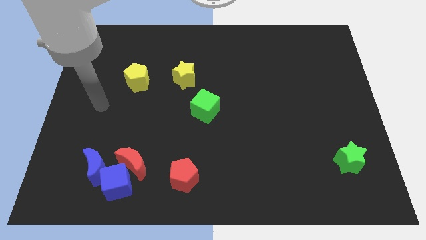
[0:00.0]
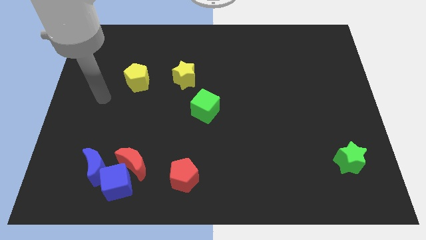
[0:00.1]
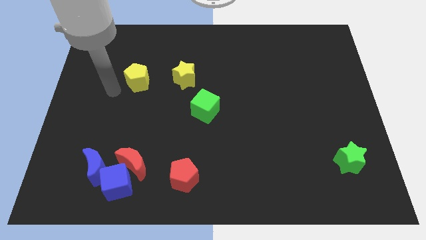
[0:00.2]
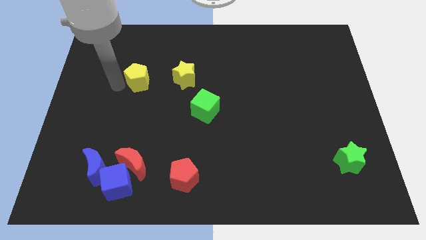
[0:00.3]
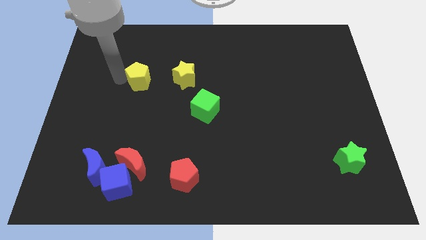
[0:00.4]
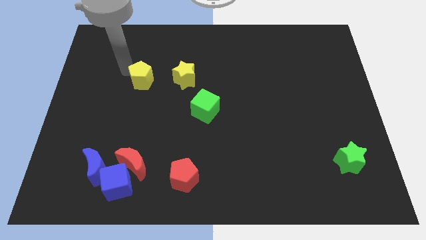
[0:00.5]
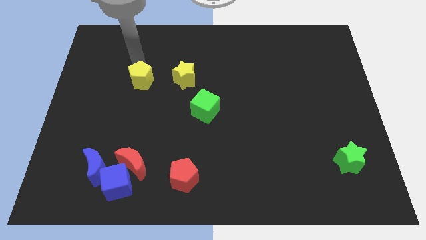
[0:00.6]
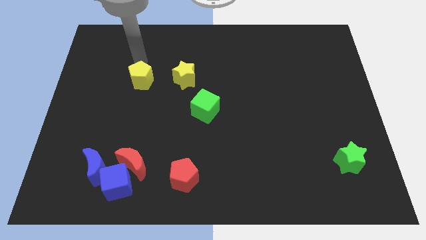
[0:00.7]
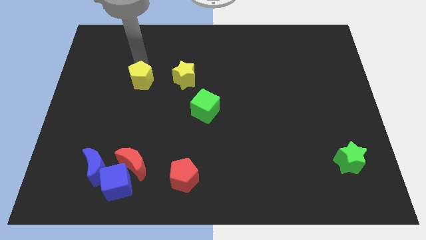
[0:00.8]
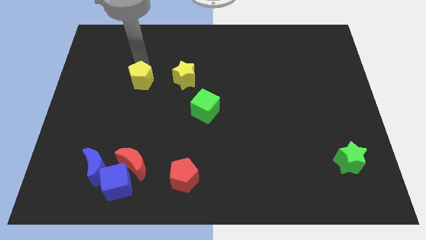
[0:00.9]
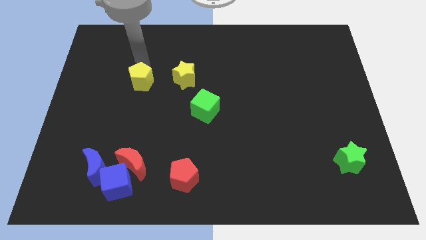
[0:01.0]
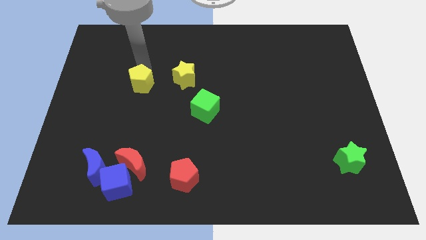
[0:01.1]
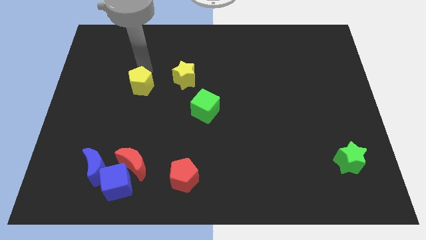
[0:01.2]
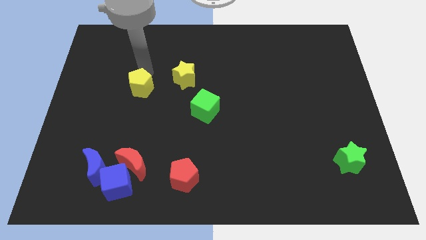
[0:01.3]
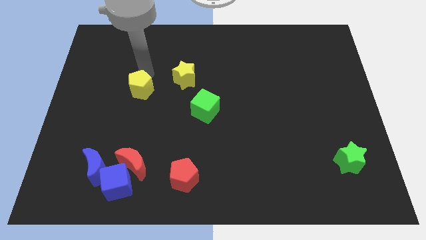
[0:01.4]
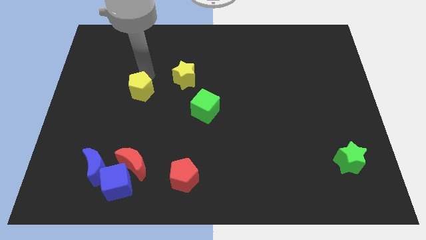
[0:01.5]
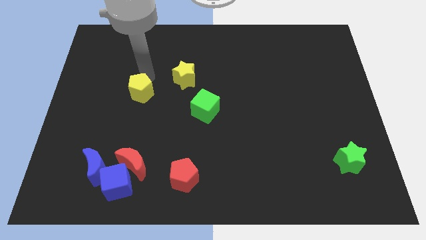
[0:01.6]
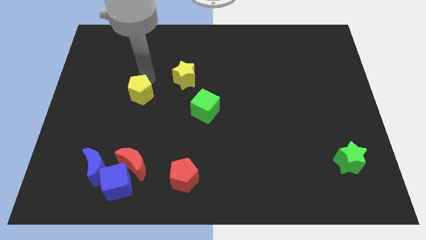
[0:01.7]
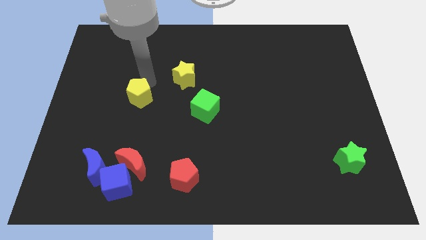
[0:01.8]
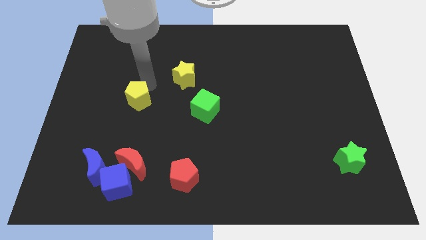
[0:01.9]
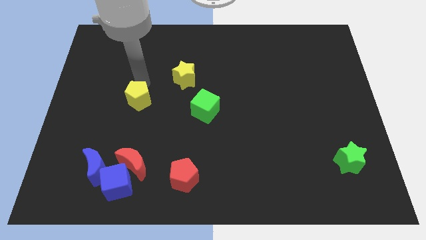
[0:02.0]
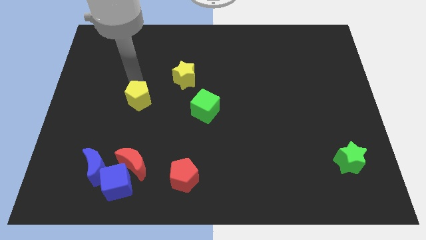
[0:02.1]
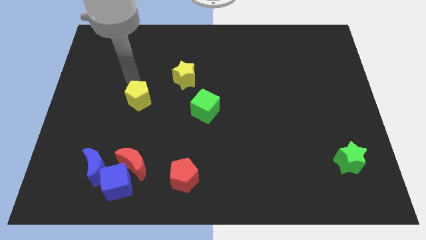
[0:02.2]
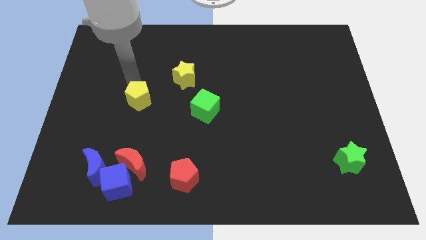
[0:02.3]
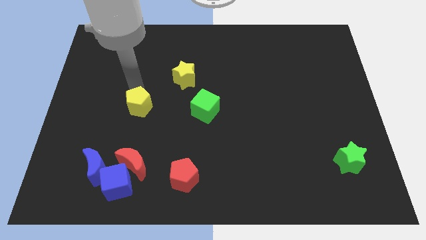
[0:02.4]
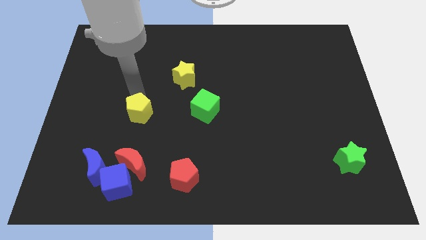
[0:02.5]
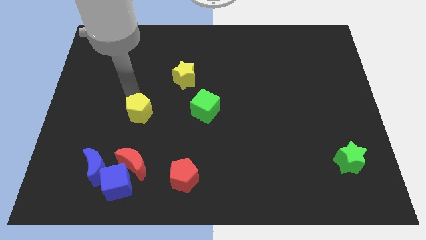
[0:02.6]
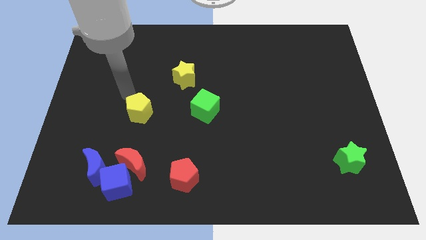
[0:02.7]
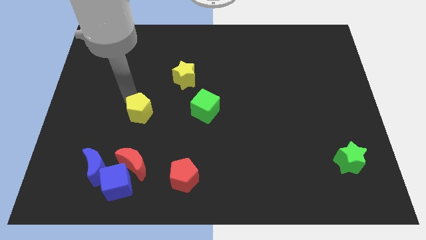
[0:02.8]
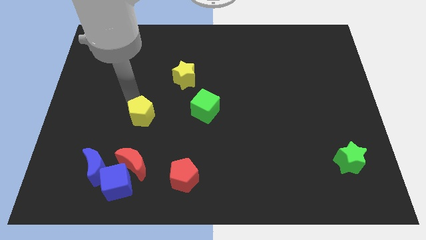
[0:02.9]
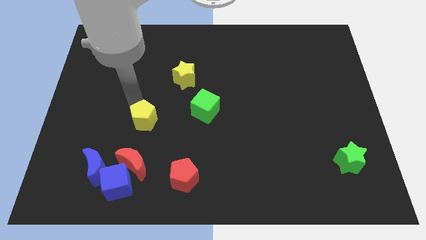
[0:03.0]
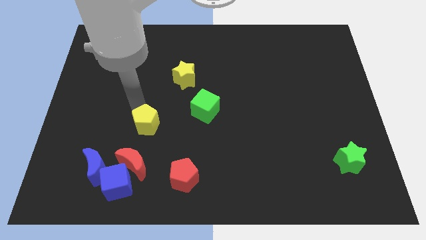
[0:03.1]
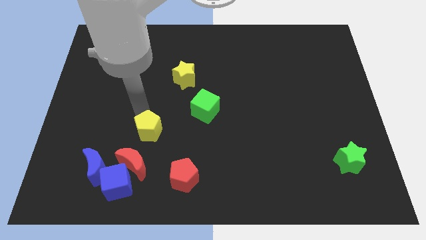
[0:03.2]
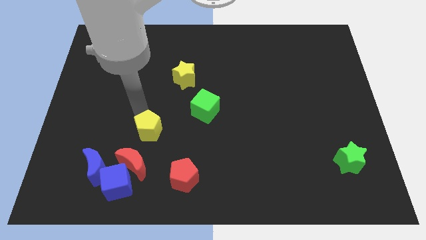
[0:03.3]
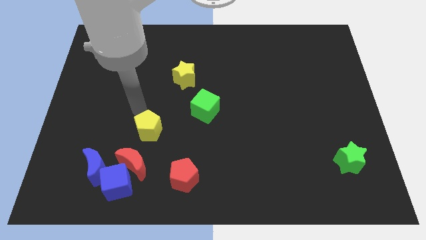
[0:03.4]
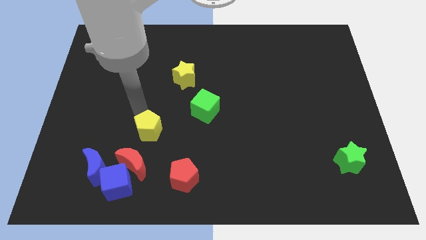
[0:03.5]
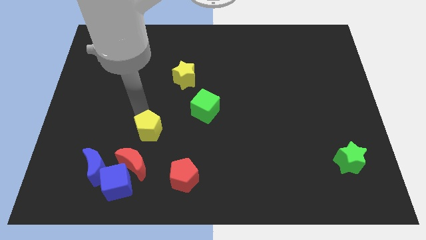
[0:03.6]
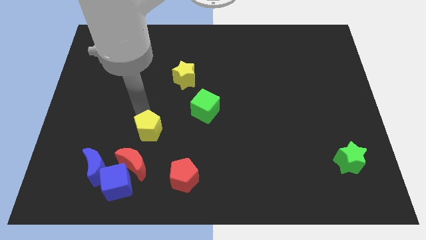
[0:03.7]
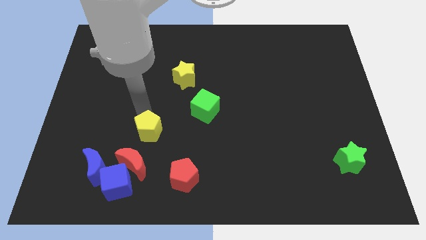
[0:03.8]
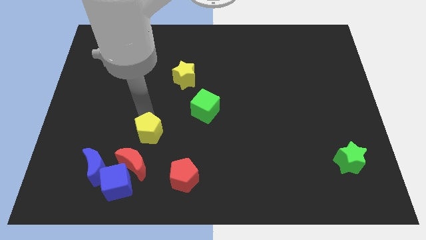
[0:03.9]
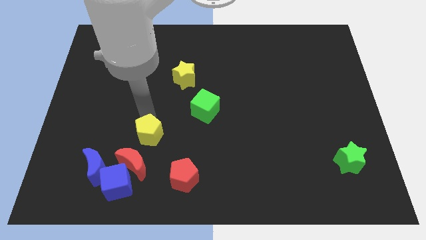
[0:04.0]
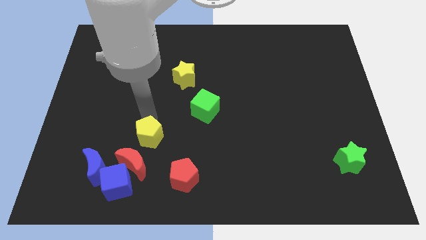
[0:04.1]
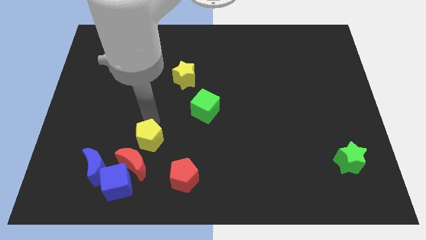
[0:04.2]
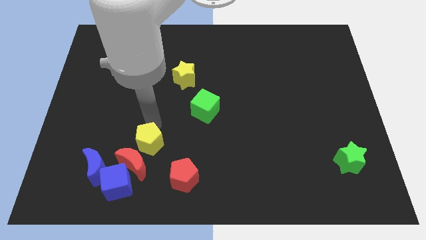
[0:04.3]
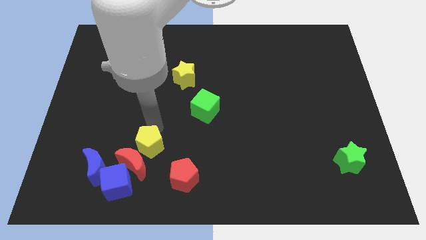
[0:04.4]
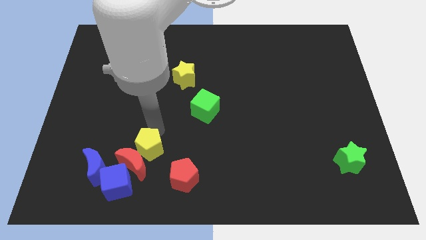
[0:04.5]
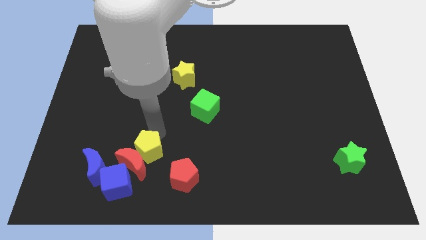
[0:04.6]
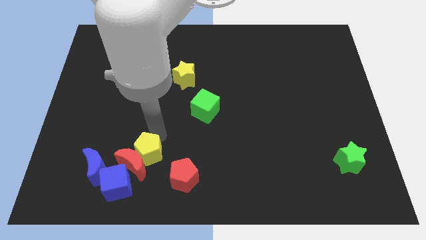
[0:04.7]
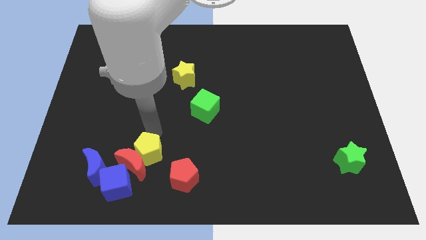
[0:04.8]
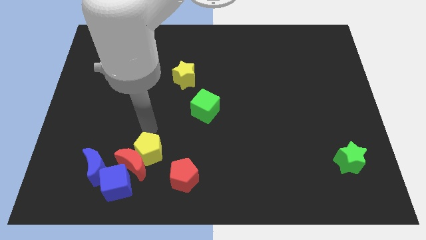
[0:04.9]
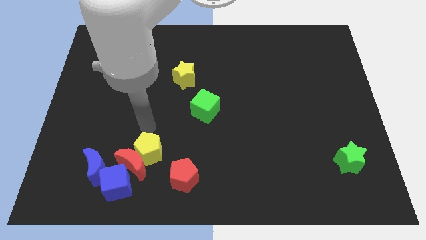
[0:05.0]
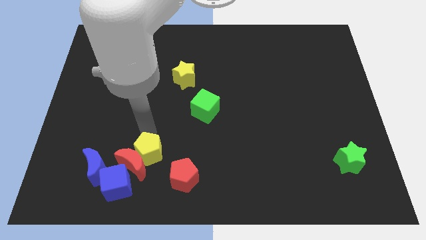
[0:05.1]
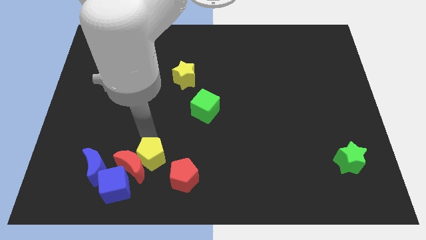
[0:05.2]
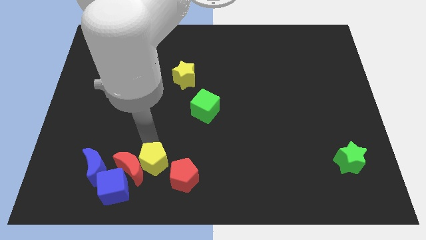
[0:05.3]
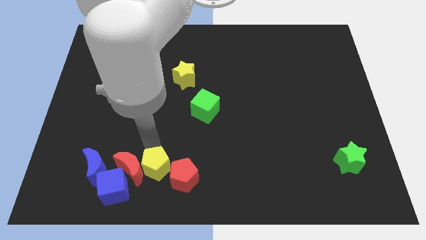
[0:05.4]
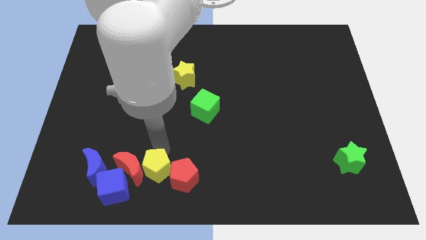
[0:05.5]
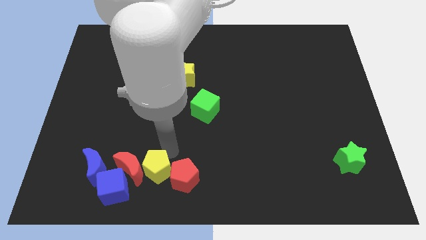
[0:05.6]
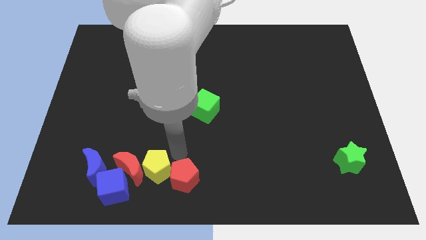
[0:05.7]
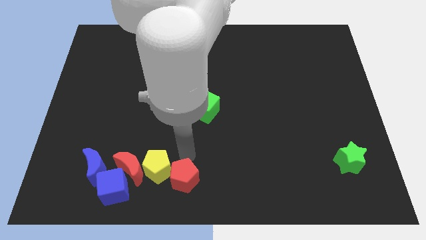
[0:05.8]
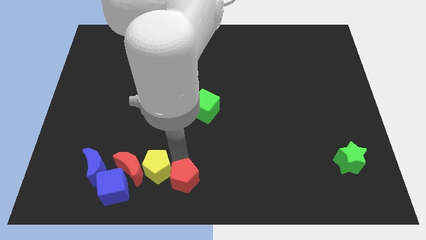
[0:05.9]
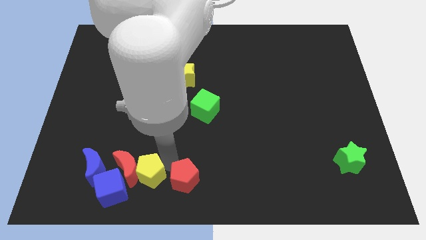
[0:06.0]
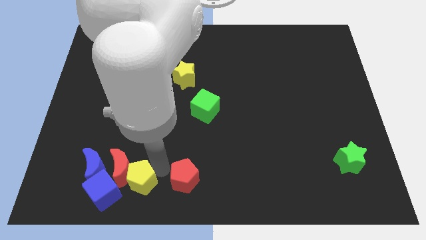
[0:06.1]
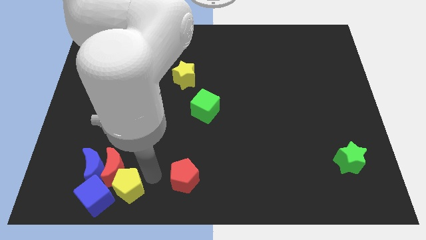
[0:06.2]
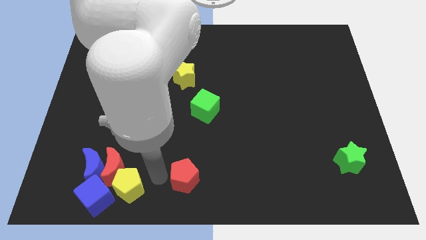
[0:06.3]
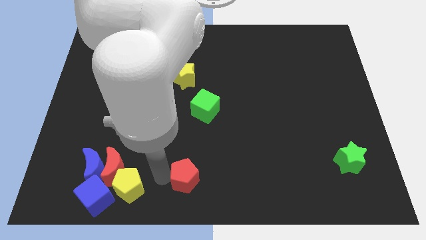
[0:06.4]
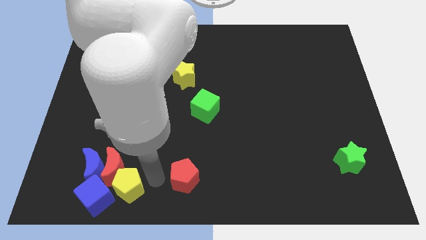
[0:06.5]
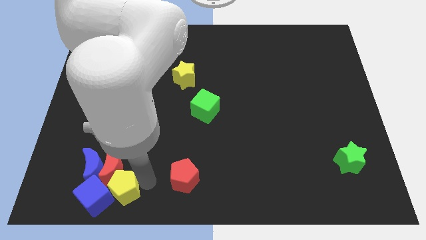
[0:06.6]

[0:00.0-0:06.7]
slide the yellow pentagon next to the blue cube
